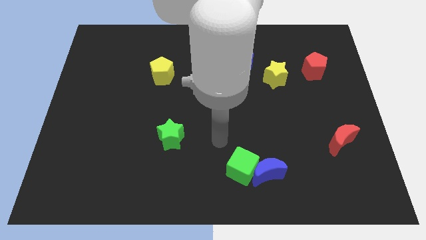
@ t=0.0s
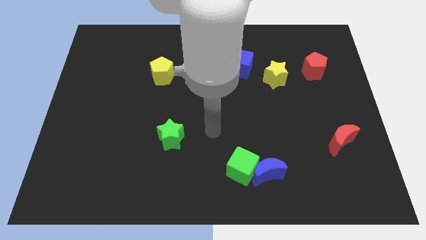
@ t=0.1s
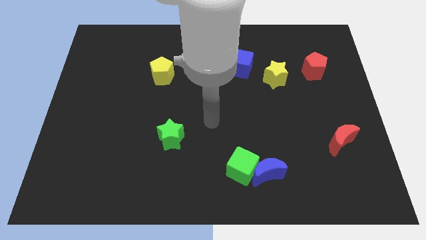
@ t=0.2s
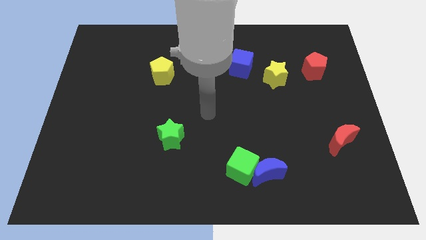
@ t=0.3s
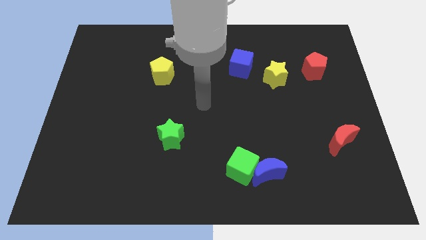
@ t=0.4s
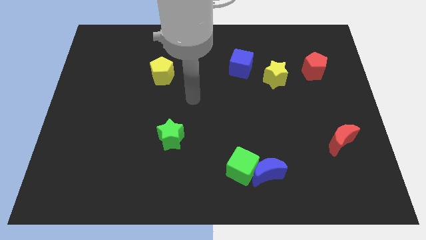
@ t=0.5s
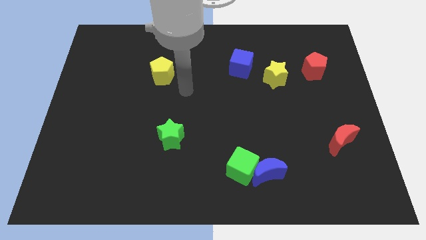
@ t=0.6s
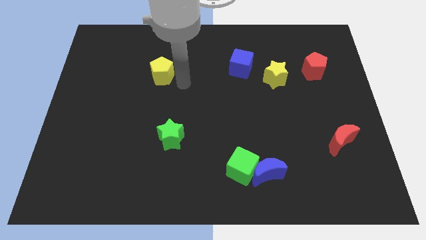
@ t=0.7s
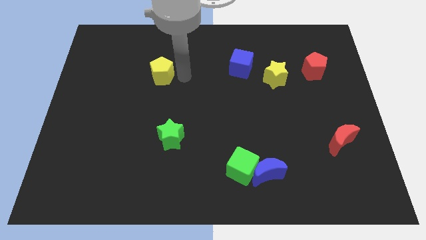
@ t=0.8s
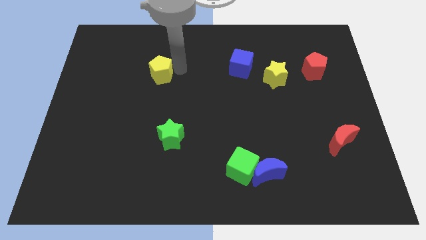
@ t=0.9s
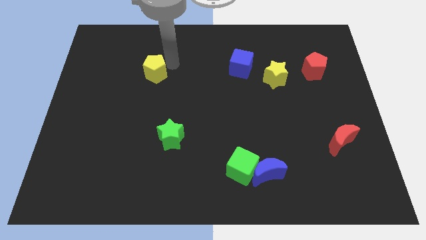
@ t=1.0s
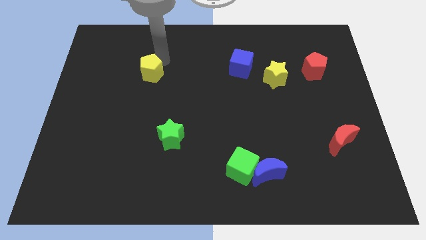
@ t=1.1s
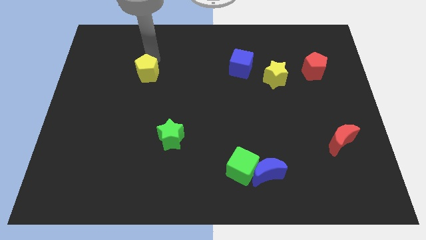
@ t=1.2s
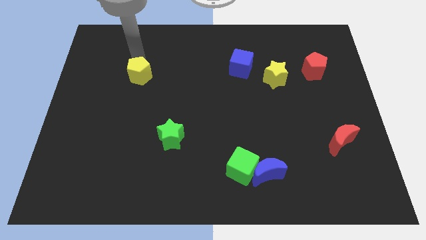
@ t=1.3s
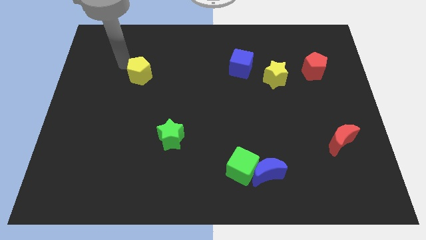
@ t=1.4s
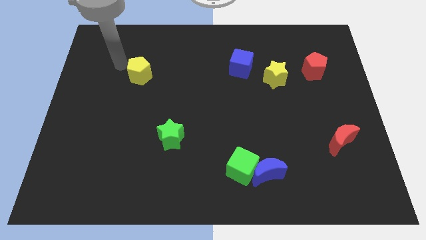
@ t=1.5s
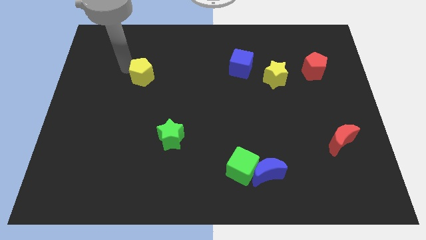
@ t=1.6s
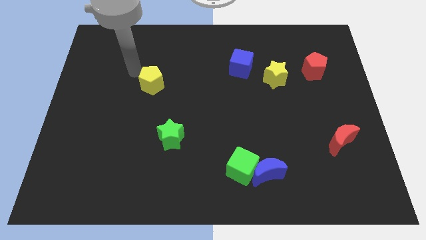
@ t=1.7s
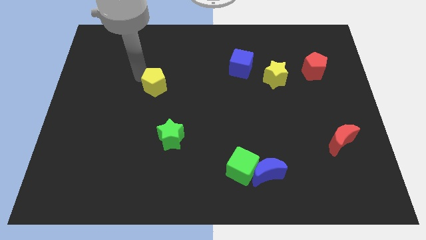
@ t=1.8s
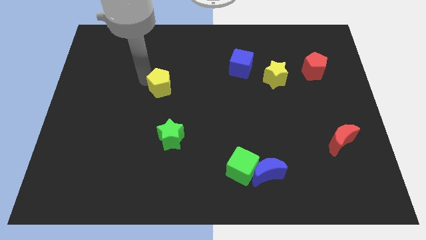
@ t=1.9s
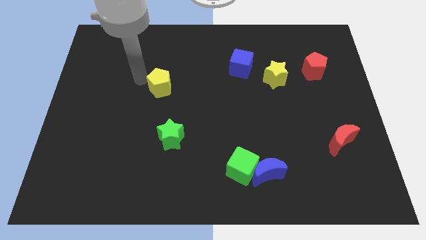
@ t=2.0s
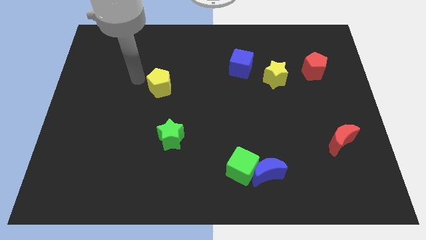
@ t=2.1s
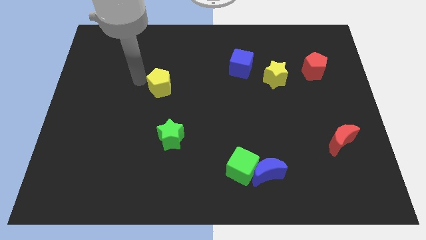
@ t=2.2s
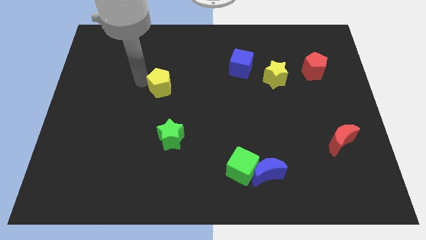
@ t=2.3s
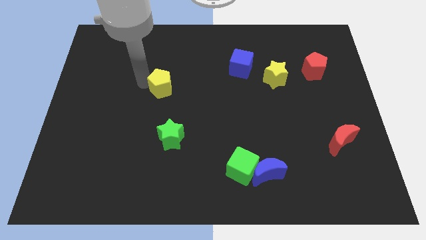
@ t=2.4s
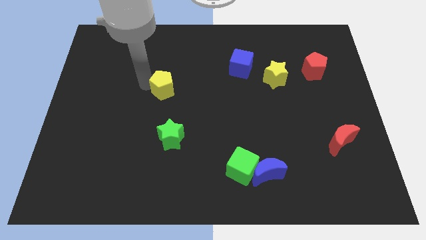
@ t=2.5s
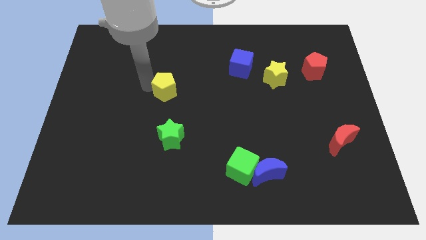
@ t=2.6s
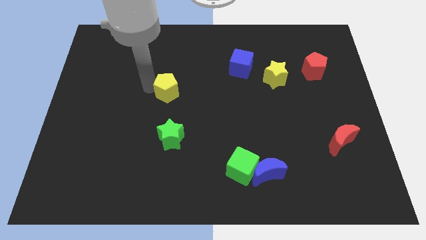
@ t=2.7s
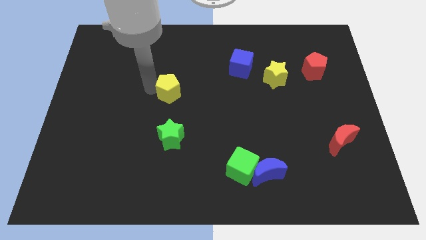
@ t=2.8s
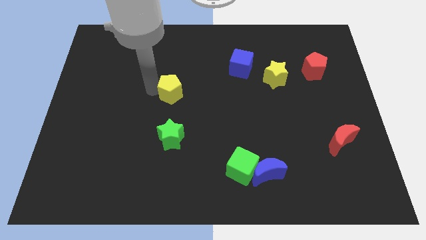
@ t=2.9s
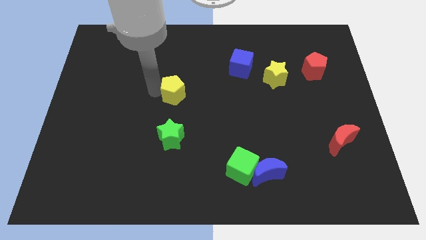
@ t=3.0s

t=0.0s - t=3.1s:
push the yellow pentagon down and right somewhat

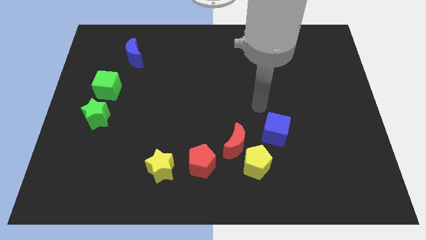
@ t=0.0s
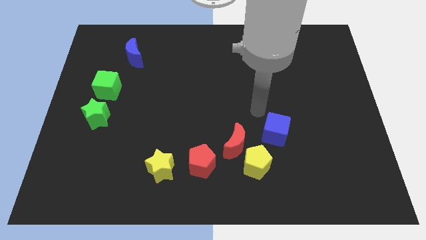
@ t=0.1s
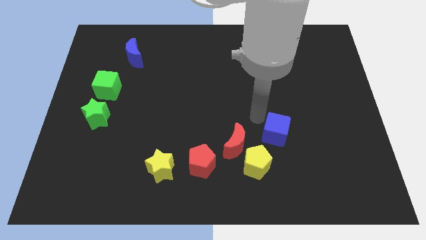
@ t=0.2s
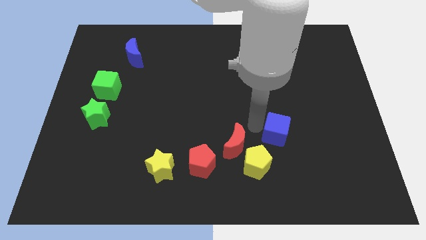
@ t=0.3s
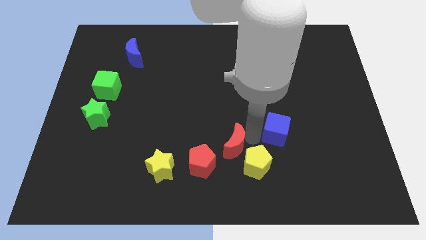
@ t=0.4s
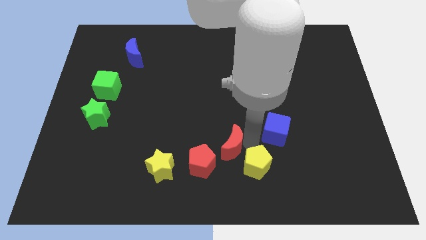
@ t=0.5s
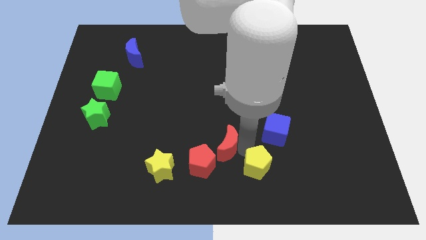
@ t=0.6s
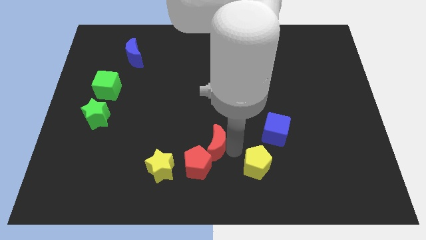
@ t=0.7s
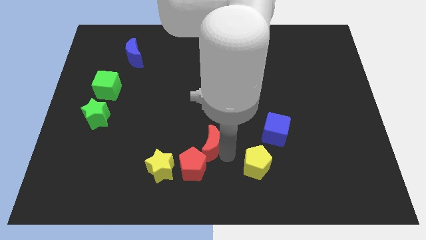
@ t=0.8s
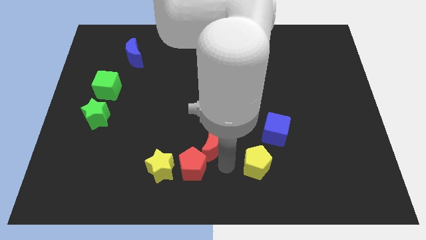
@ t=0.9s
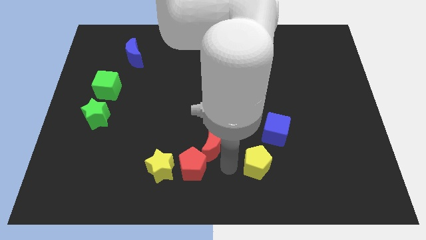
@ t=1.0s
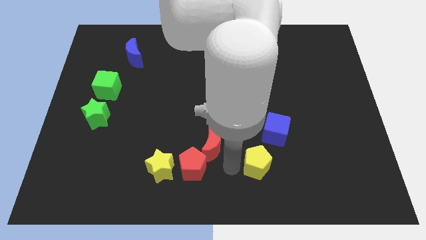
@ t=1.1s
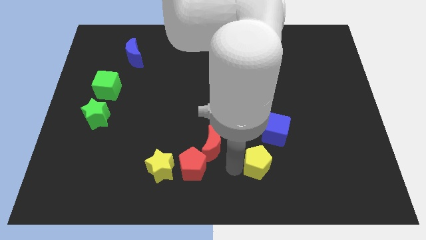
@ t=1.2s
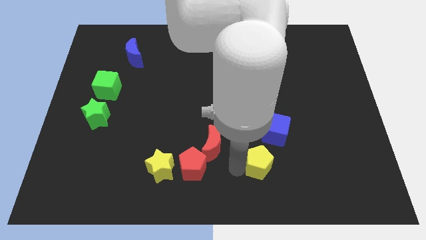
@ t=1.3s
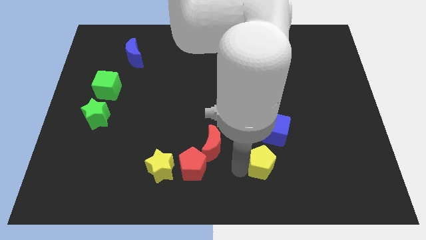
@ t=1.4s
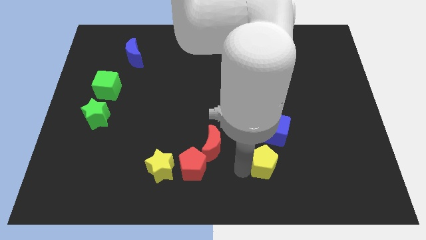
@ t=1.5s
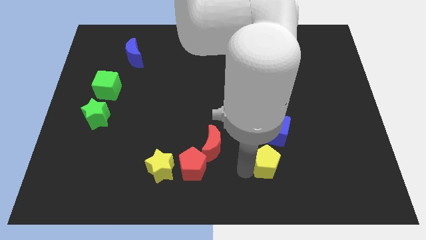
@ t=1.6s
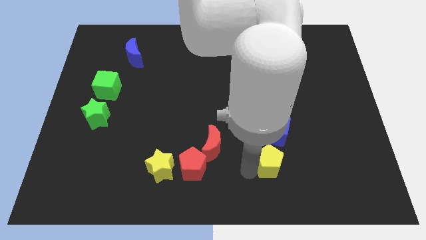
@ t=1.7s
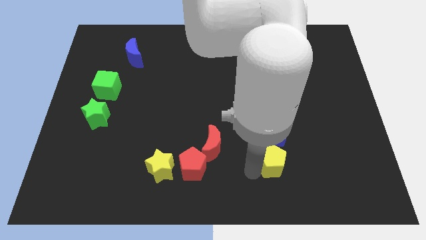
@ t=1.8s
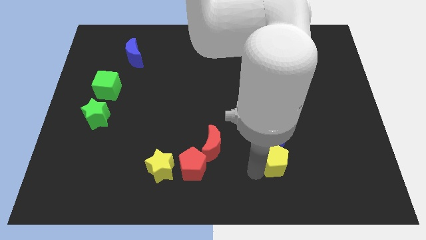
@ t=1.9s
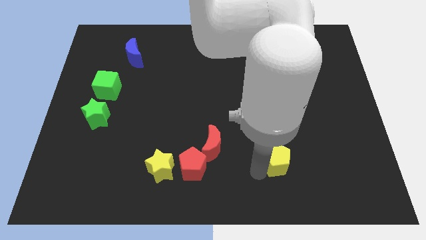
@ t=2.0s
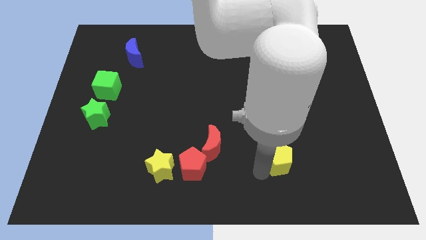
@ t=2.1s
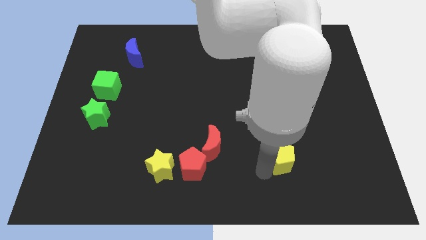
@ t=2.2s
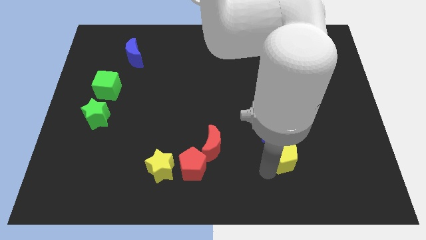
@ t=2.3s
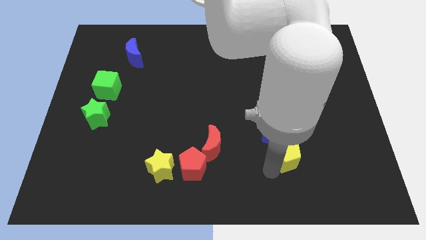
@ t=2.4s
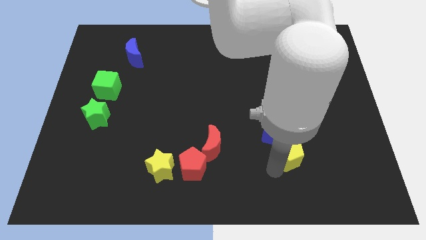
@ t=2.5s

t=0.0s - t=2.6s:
move the yellow pentagon somewhat right

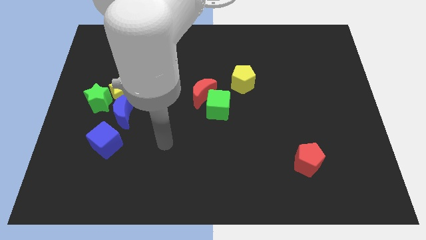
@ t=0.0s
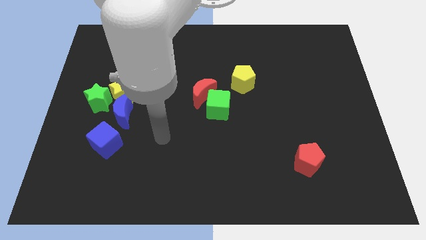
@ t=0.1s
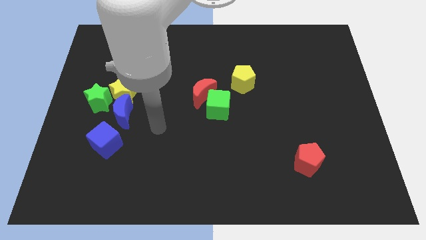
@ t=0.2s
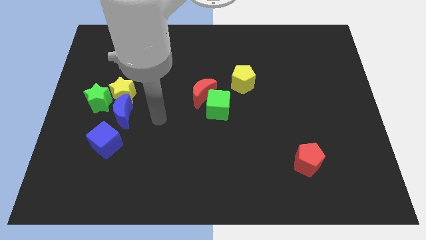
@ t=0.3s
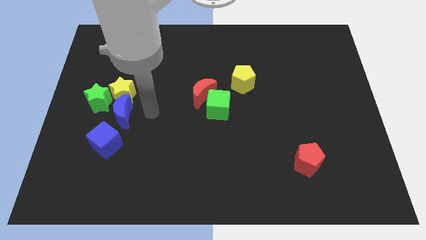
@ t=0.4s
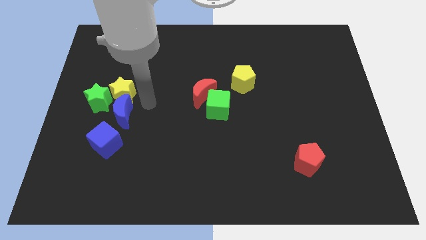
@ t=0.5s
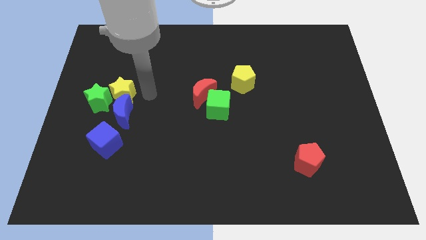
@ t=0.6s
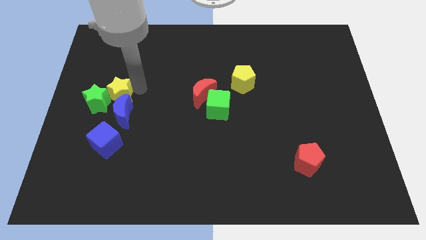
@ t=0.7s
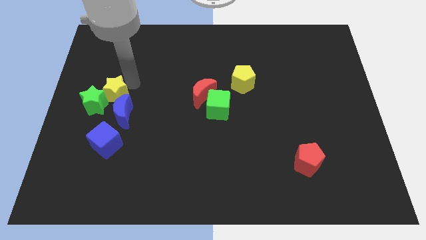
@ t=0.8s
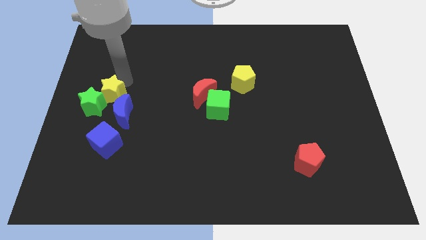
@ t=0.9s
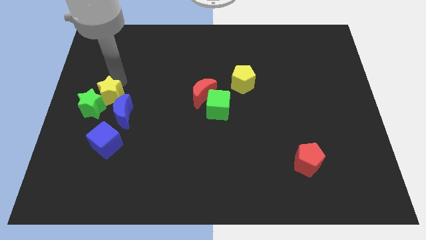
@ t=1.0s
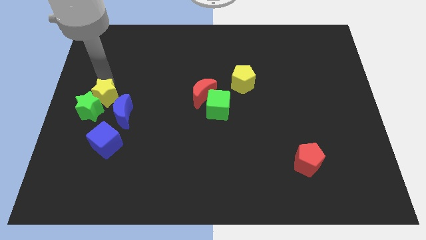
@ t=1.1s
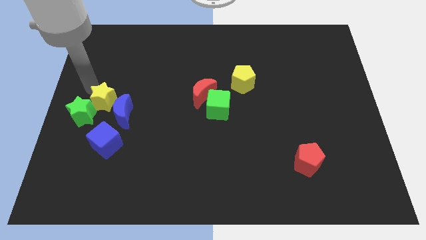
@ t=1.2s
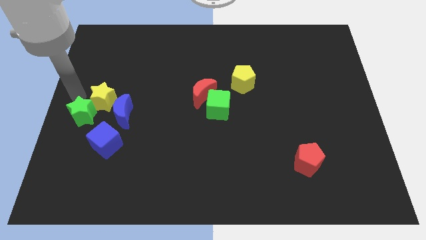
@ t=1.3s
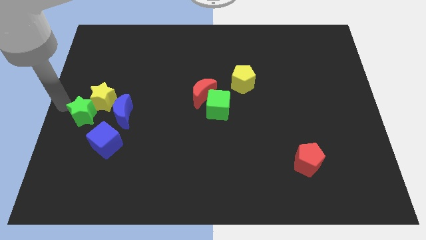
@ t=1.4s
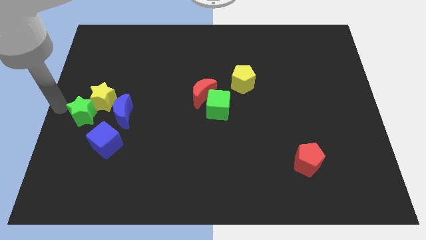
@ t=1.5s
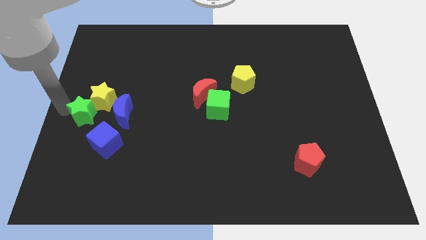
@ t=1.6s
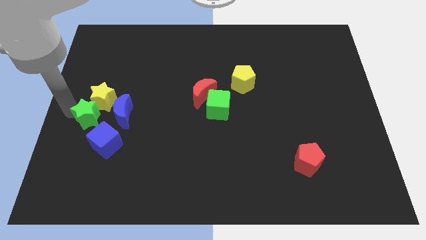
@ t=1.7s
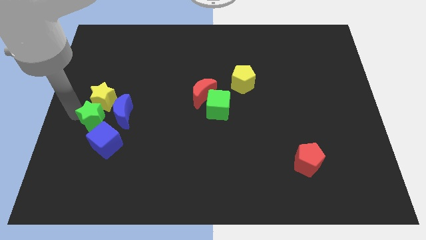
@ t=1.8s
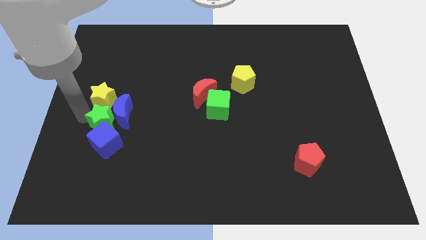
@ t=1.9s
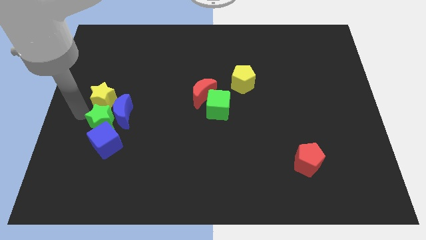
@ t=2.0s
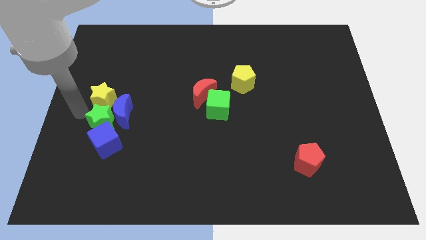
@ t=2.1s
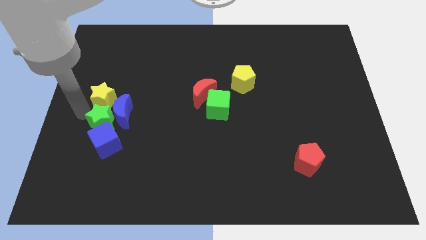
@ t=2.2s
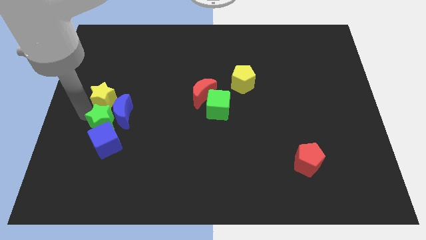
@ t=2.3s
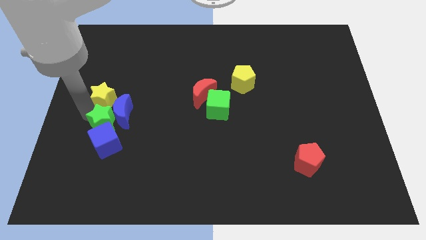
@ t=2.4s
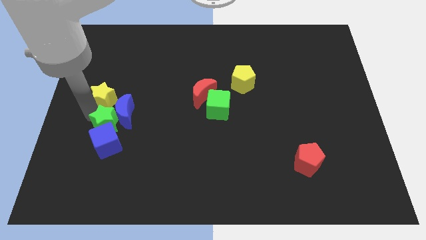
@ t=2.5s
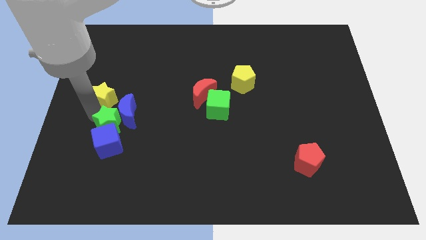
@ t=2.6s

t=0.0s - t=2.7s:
slide the green star slightly downwards and then to the right
